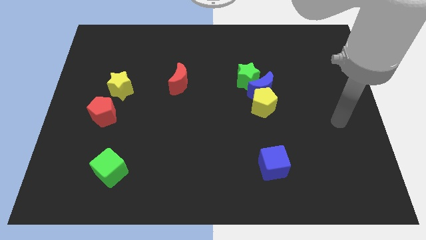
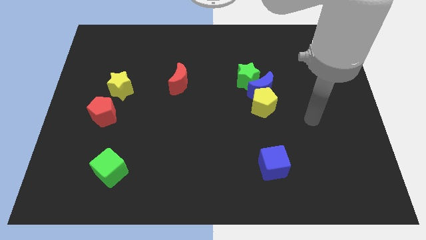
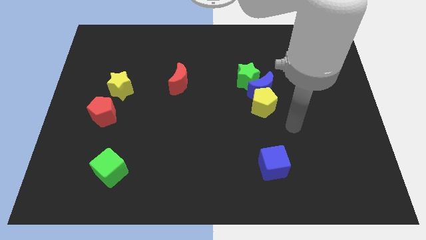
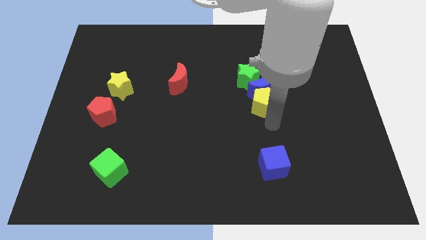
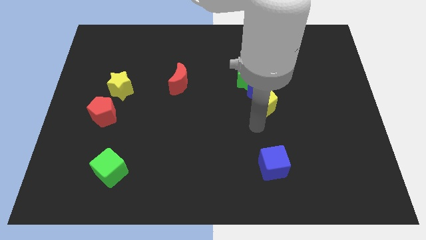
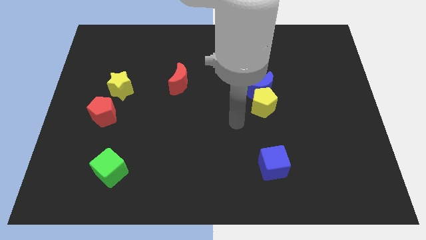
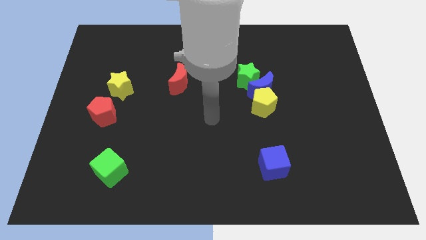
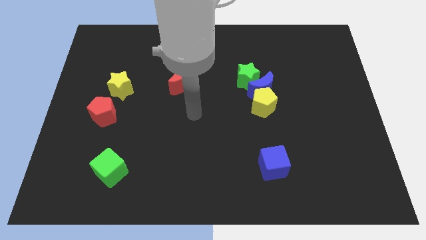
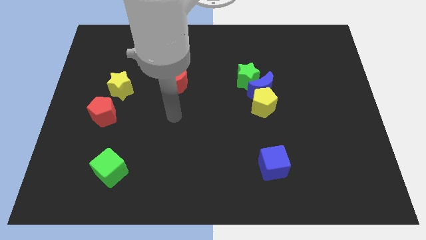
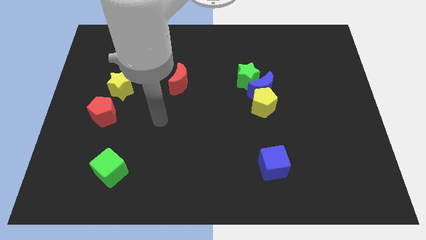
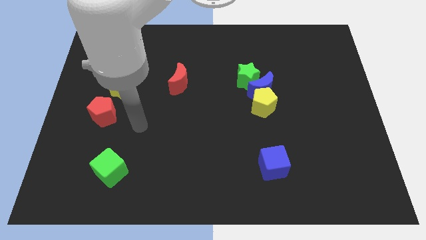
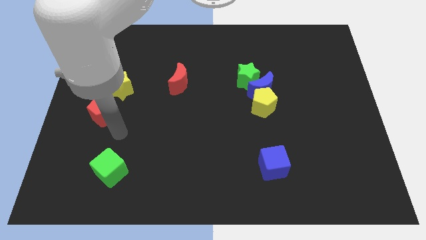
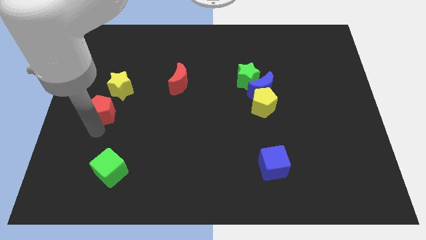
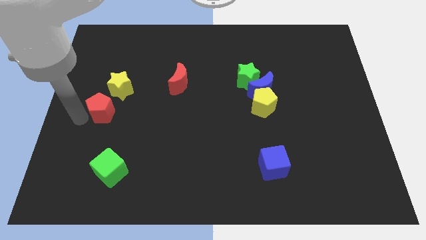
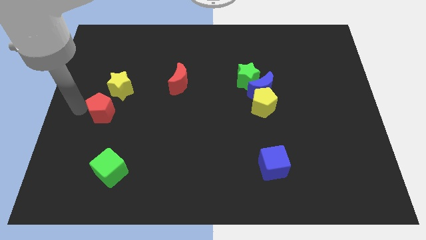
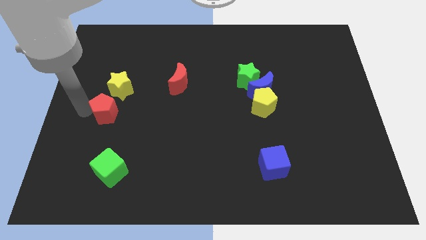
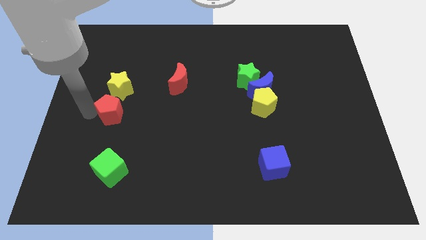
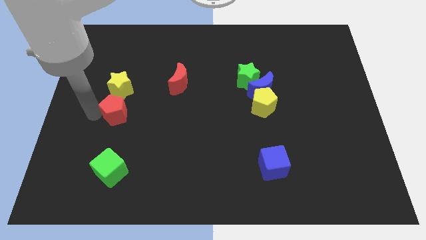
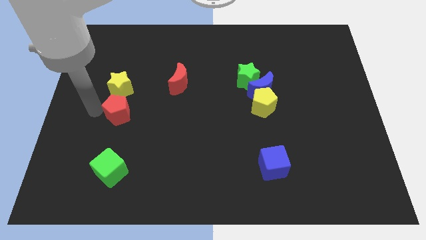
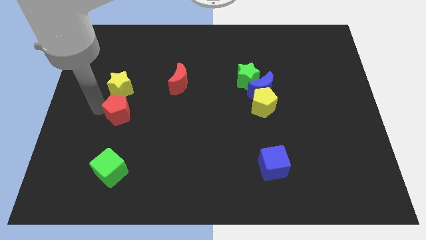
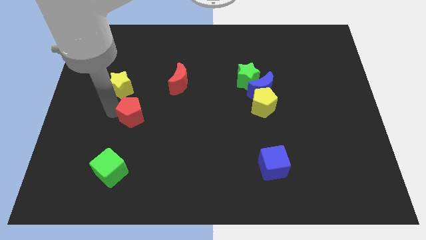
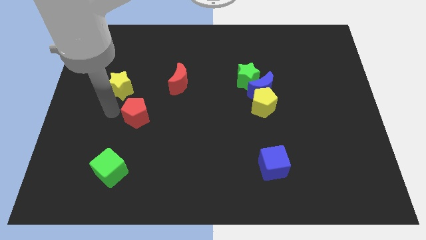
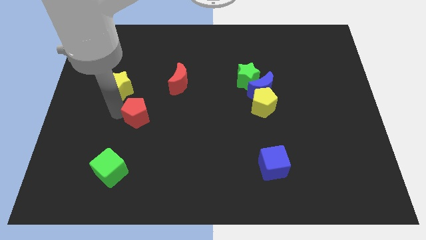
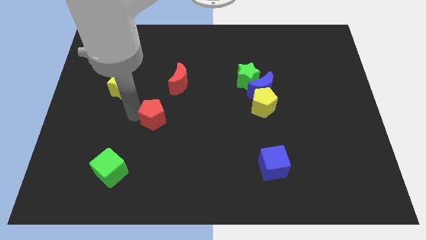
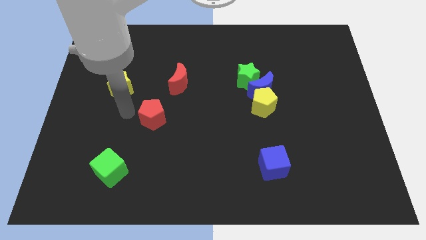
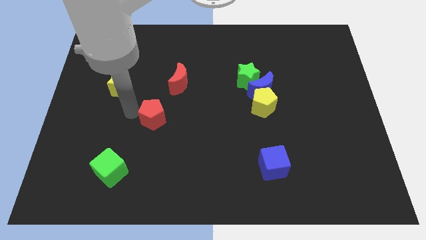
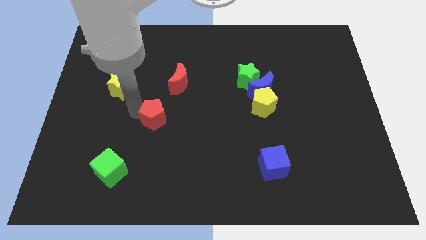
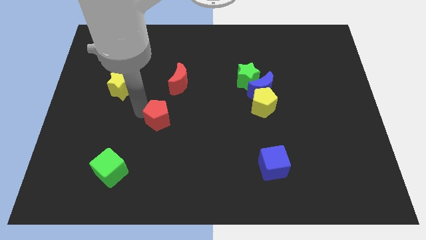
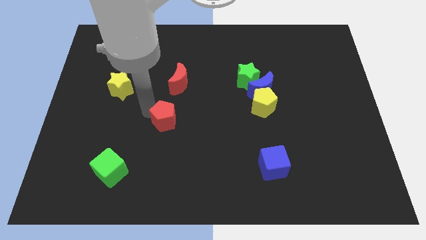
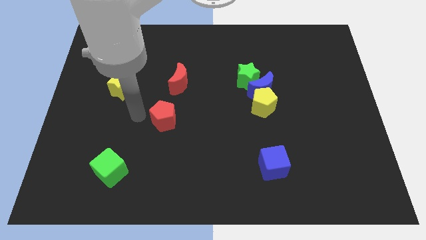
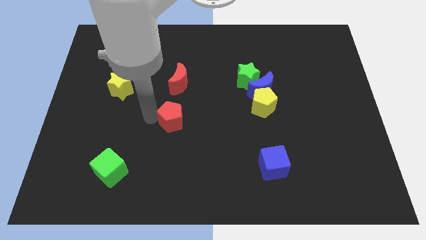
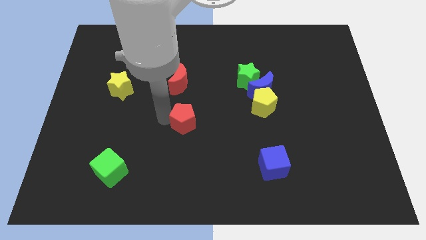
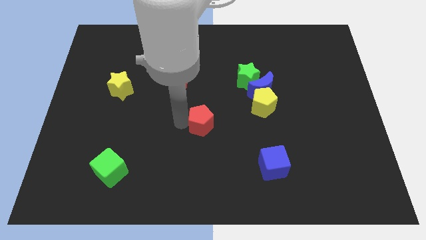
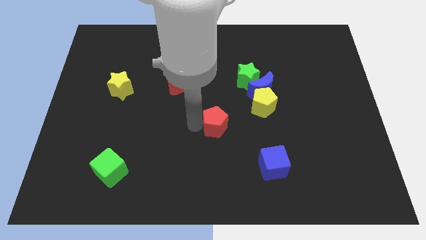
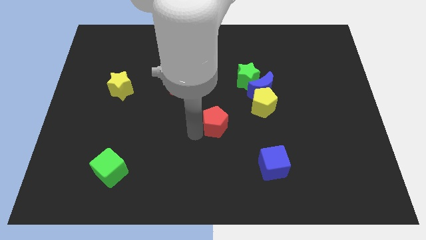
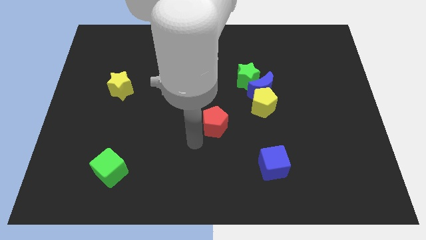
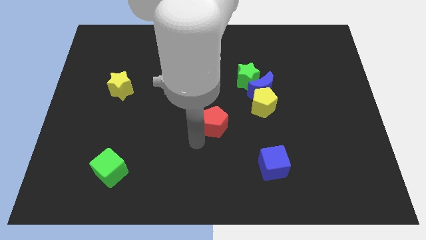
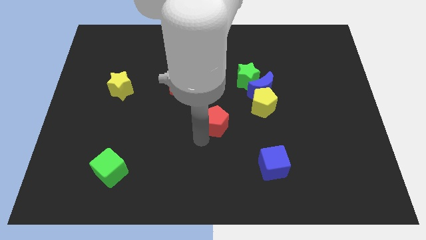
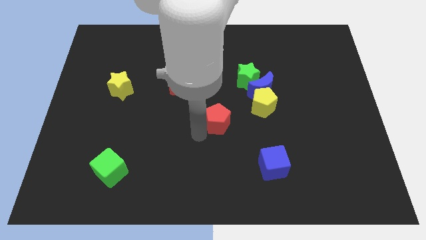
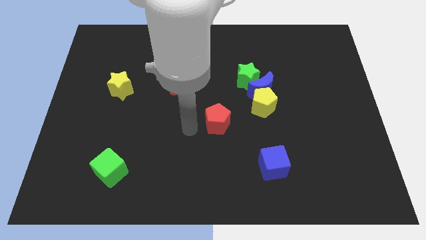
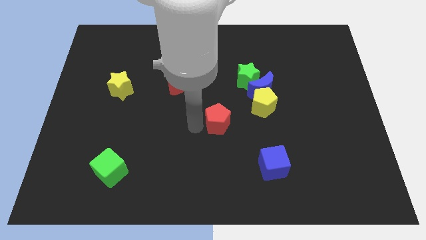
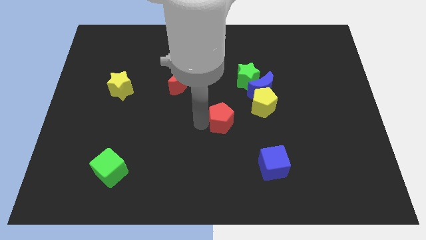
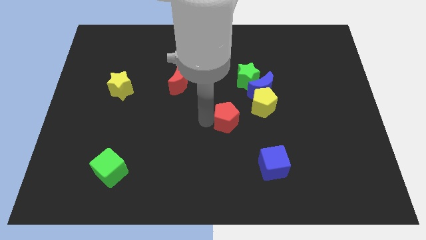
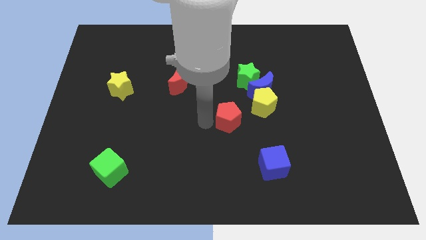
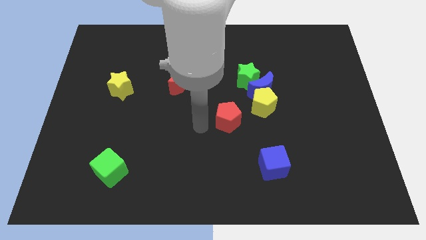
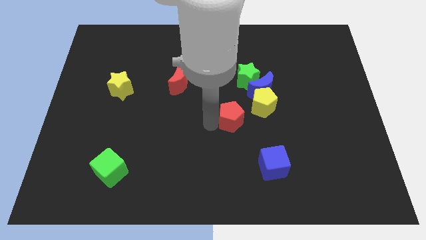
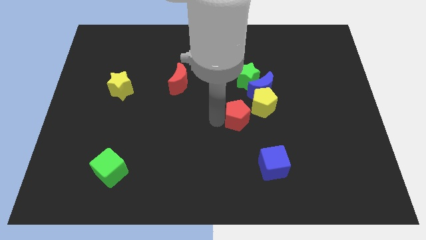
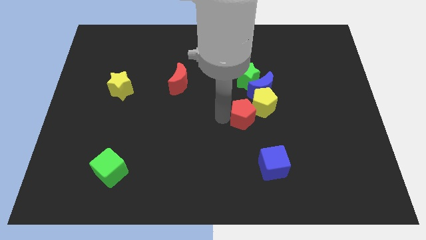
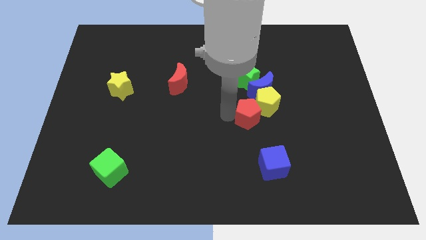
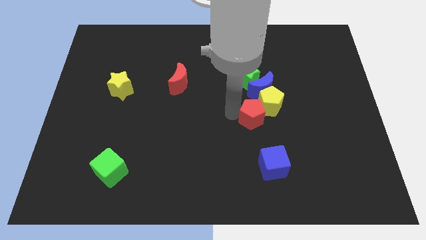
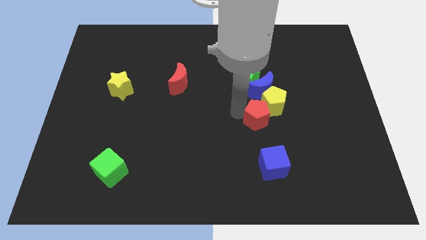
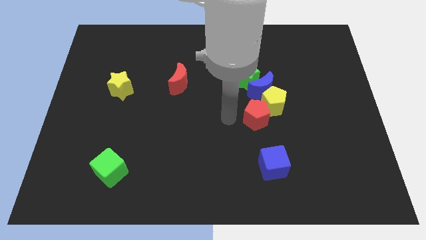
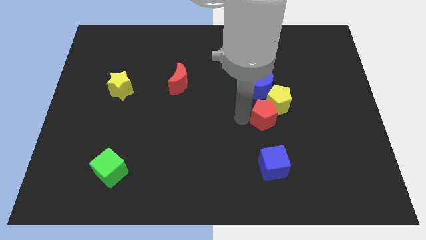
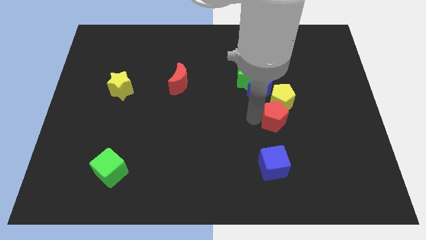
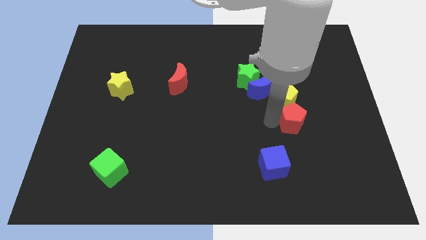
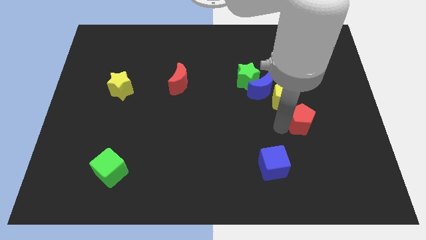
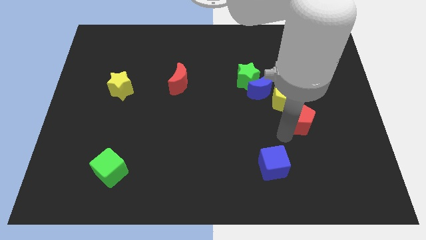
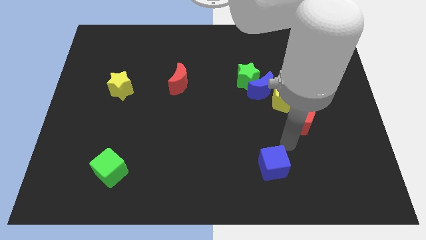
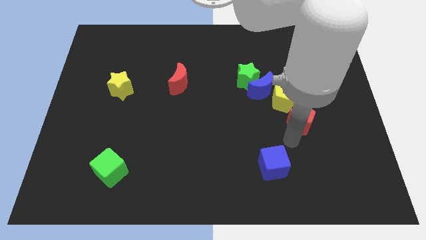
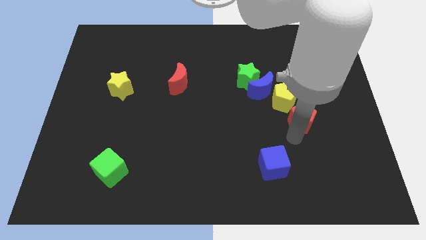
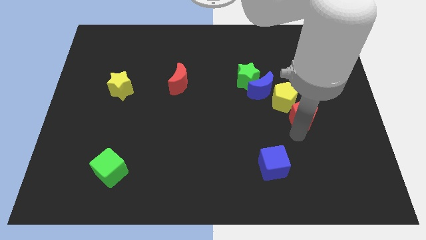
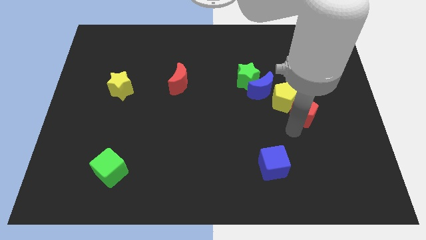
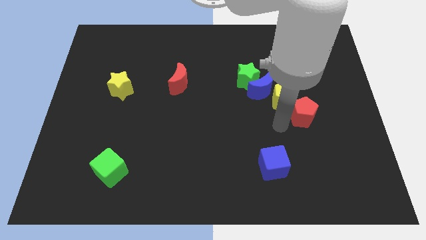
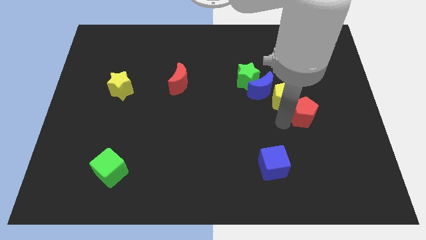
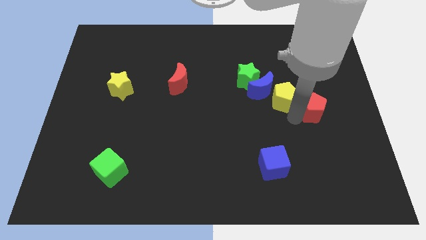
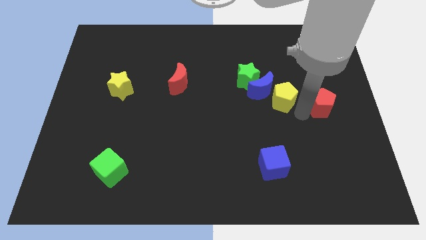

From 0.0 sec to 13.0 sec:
slide the red pentagon to the right side of the board
